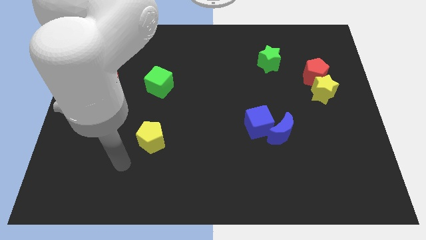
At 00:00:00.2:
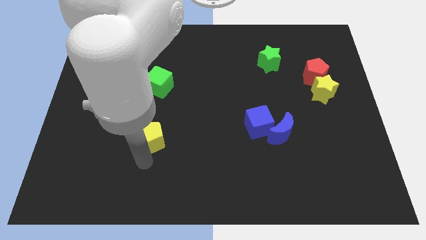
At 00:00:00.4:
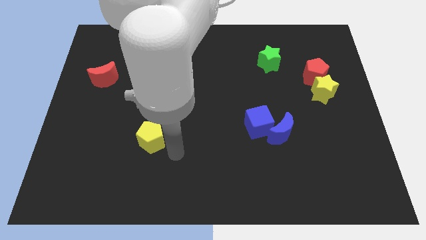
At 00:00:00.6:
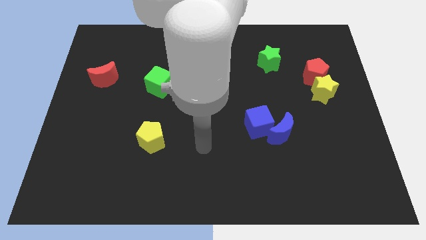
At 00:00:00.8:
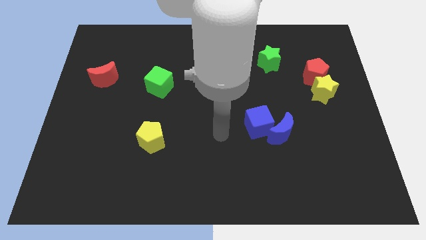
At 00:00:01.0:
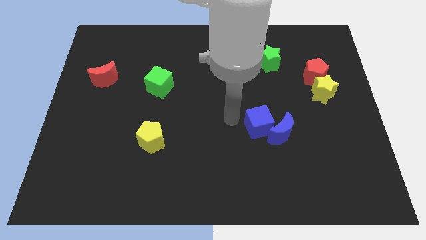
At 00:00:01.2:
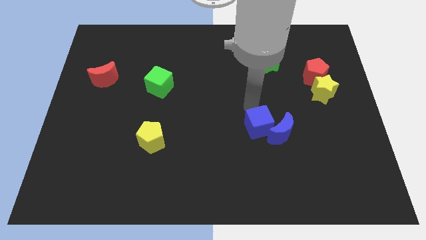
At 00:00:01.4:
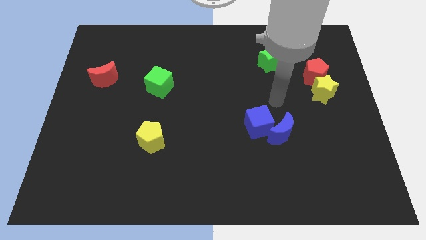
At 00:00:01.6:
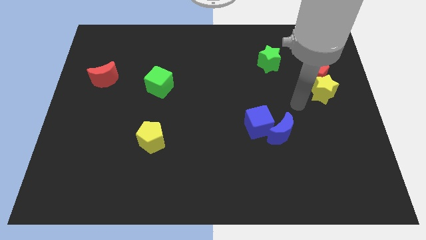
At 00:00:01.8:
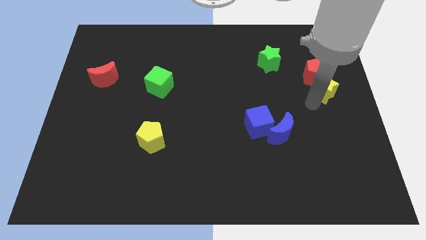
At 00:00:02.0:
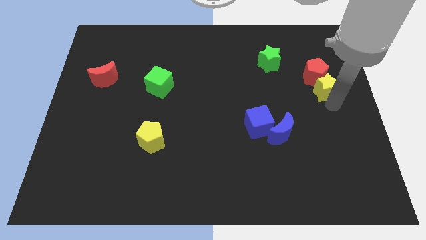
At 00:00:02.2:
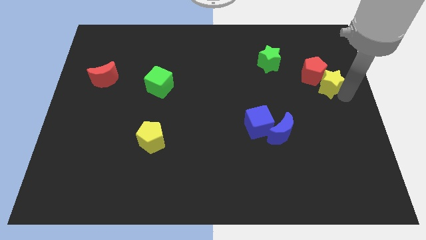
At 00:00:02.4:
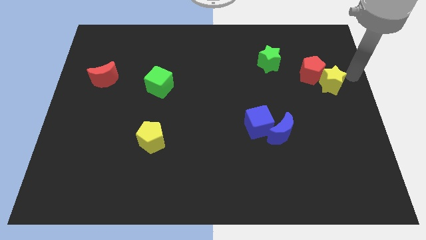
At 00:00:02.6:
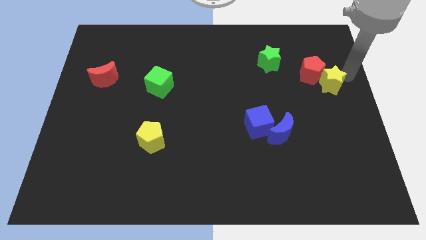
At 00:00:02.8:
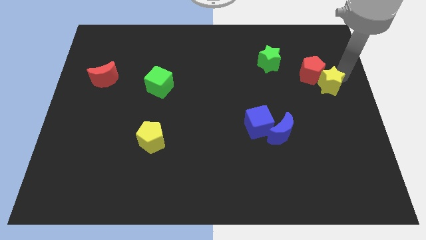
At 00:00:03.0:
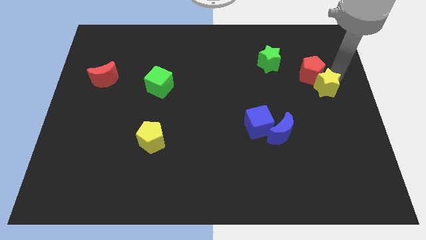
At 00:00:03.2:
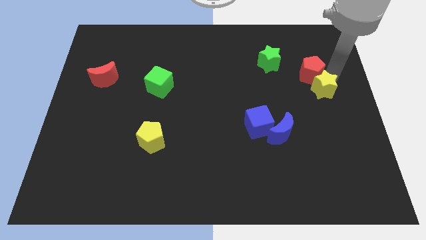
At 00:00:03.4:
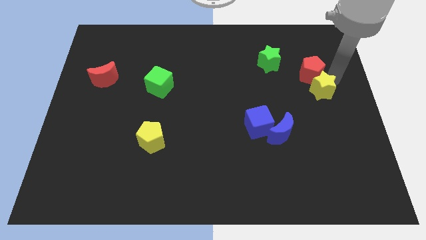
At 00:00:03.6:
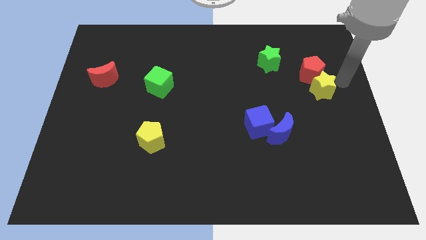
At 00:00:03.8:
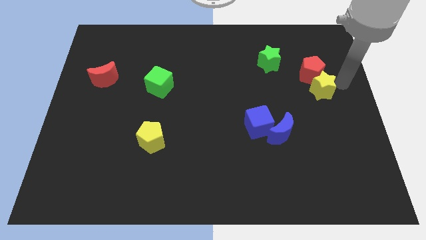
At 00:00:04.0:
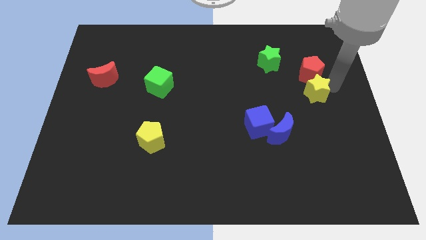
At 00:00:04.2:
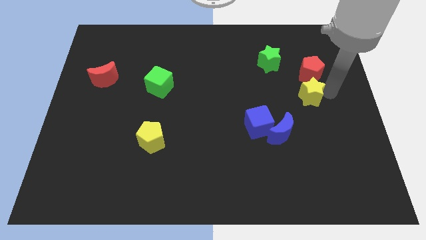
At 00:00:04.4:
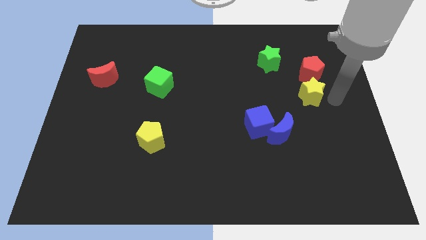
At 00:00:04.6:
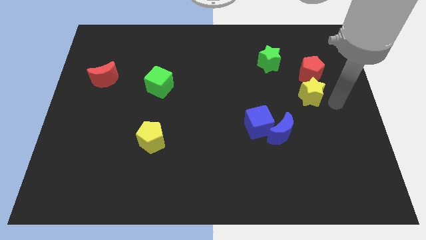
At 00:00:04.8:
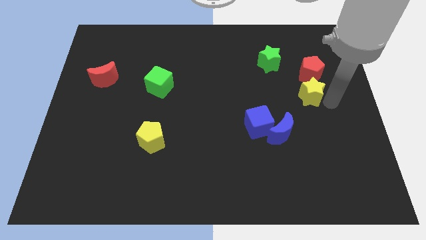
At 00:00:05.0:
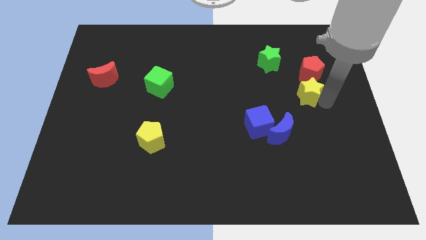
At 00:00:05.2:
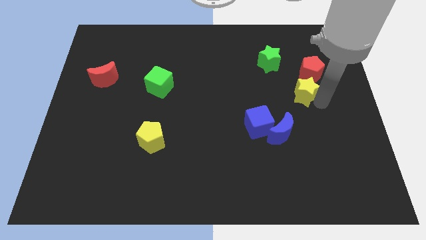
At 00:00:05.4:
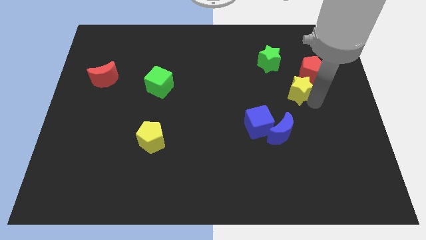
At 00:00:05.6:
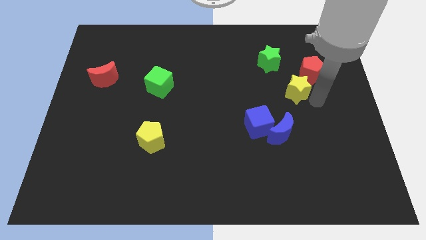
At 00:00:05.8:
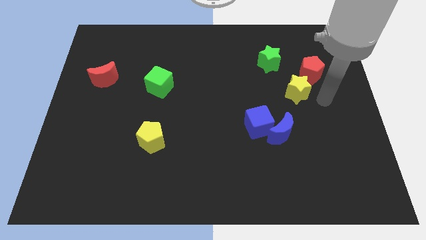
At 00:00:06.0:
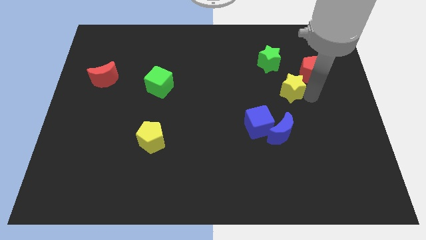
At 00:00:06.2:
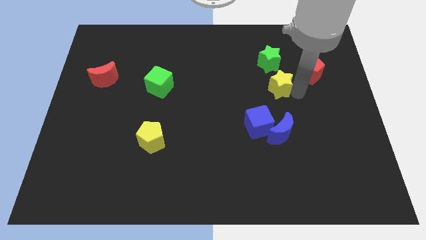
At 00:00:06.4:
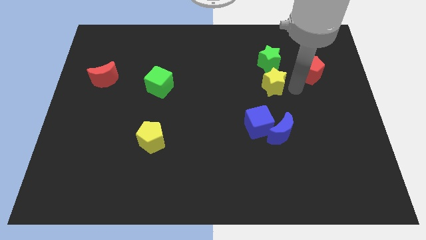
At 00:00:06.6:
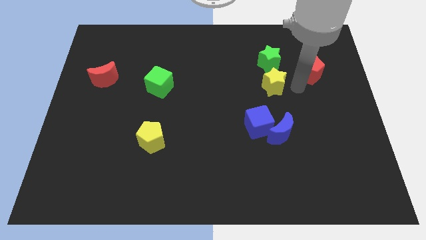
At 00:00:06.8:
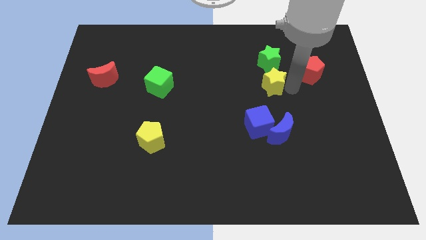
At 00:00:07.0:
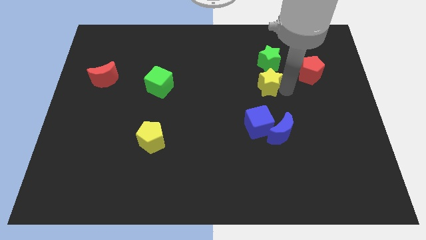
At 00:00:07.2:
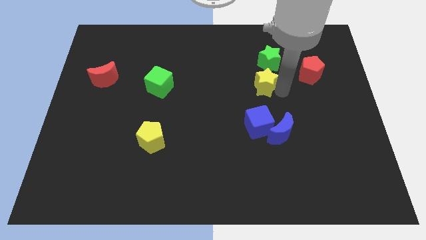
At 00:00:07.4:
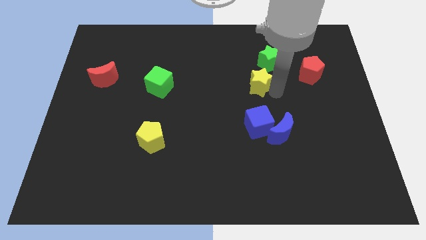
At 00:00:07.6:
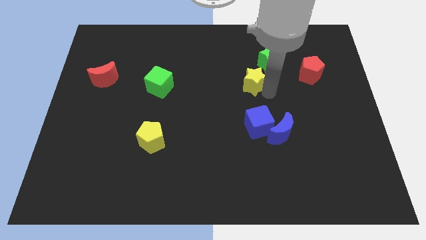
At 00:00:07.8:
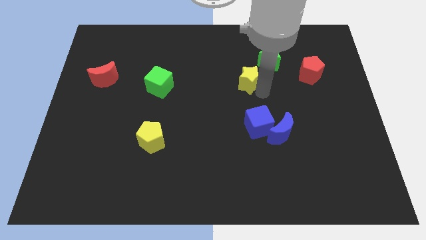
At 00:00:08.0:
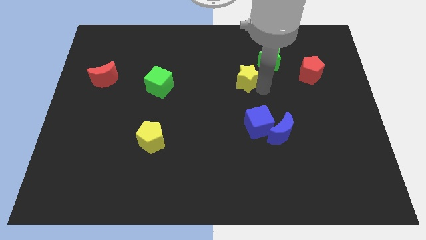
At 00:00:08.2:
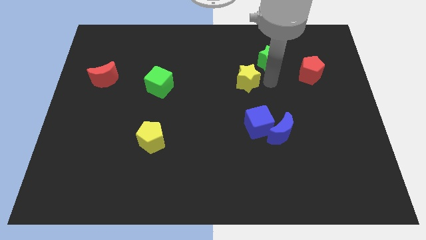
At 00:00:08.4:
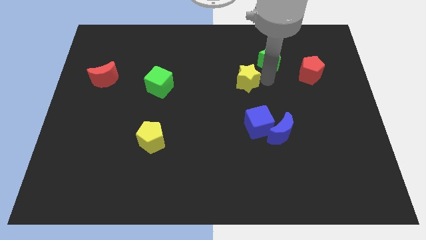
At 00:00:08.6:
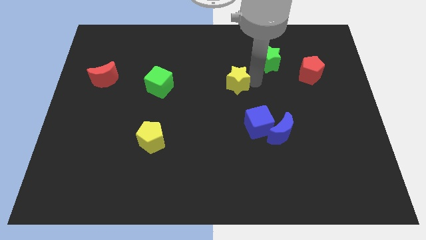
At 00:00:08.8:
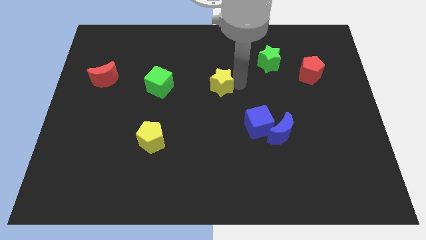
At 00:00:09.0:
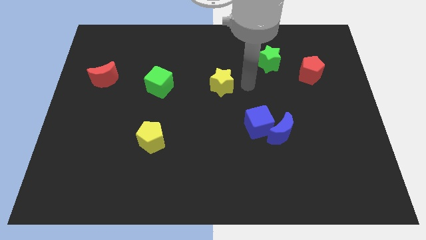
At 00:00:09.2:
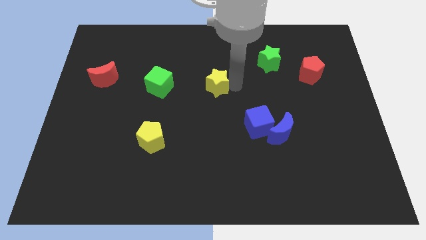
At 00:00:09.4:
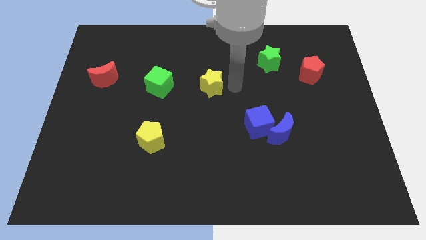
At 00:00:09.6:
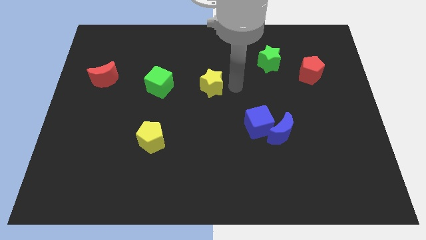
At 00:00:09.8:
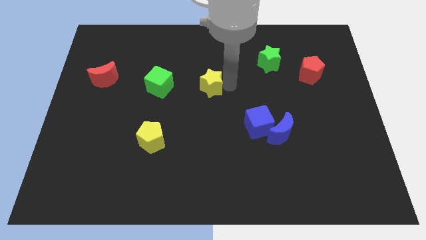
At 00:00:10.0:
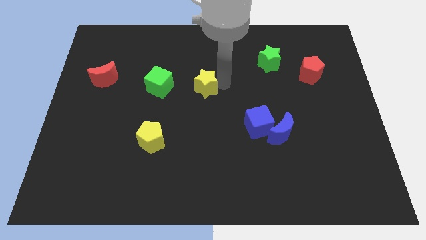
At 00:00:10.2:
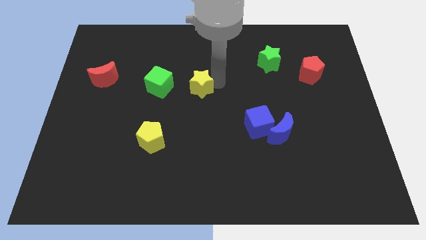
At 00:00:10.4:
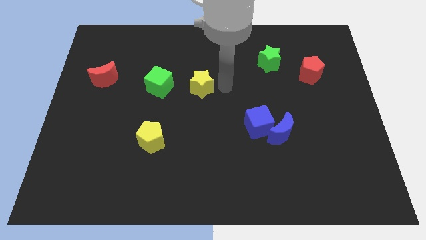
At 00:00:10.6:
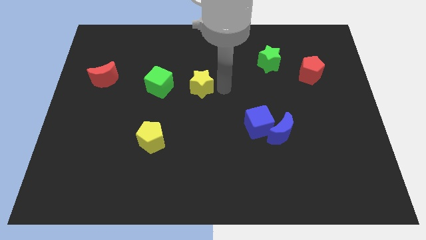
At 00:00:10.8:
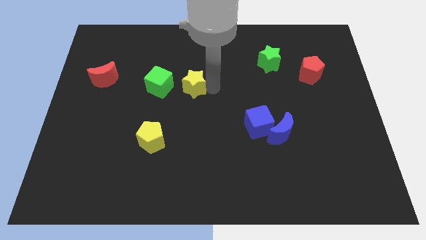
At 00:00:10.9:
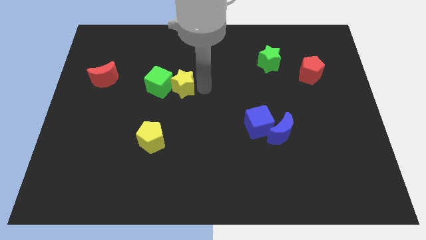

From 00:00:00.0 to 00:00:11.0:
push the yellow star next to the green cube

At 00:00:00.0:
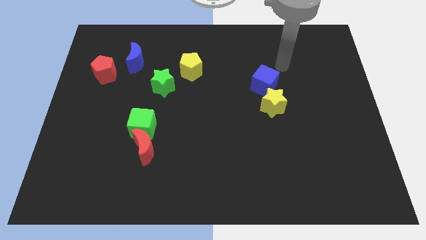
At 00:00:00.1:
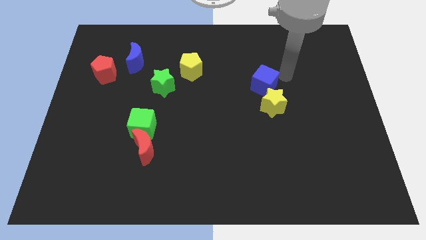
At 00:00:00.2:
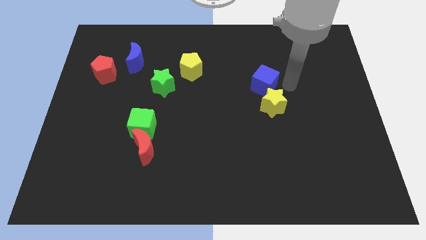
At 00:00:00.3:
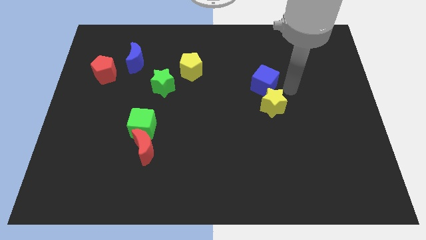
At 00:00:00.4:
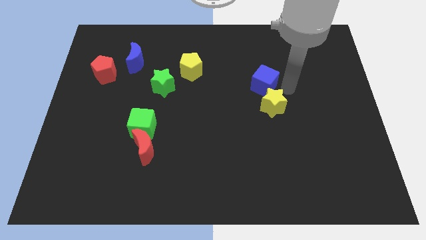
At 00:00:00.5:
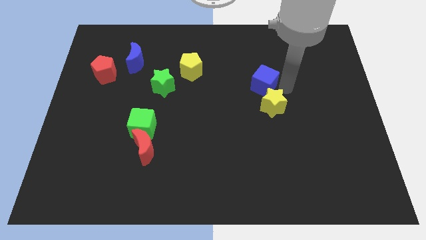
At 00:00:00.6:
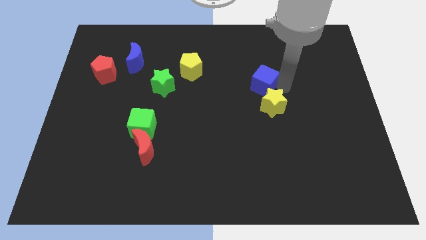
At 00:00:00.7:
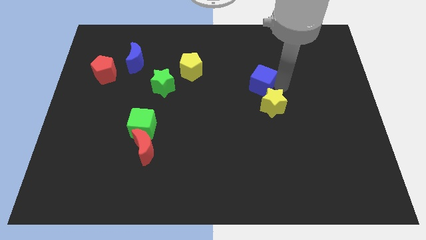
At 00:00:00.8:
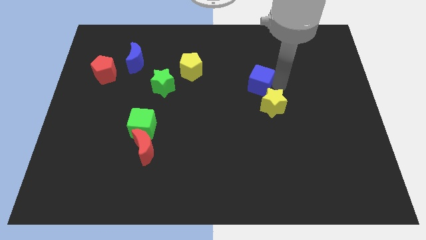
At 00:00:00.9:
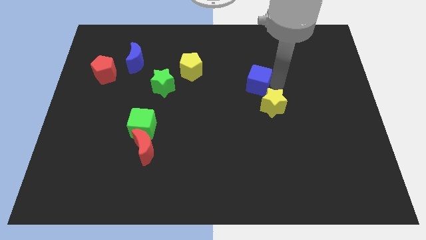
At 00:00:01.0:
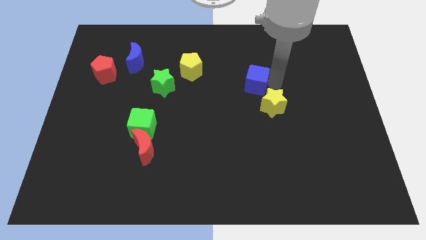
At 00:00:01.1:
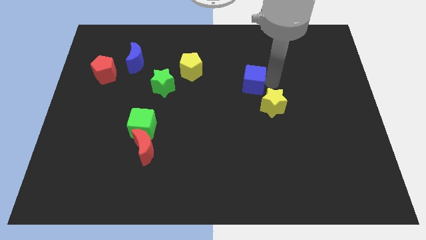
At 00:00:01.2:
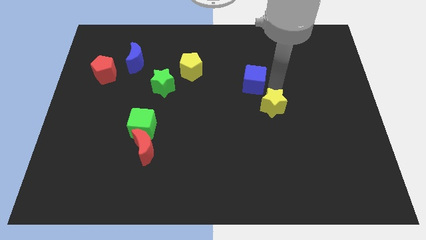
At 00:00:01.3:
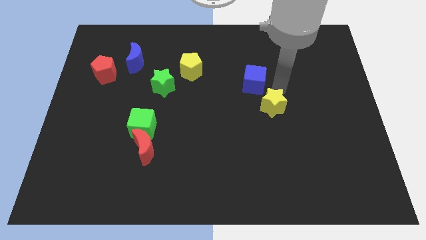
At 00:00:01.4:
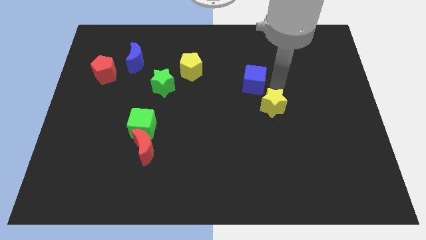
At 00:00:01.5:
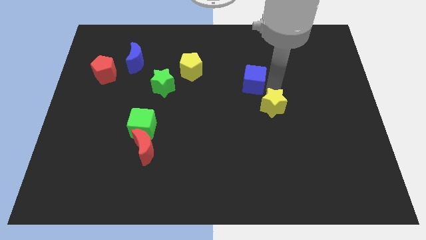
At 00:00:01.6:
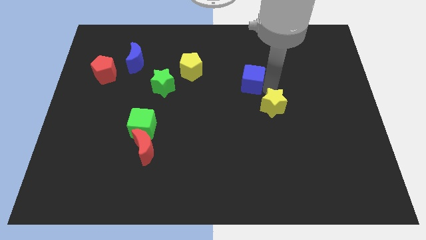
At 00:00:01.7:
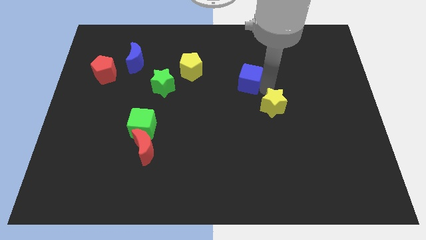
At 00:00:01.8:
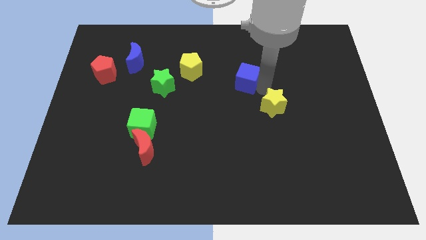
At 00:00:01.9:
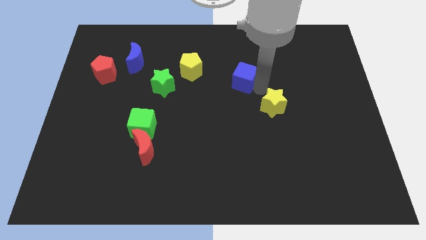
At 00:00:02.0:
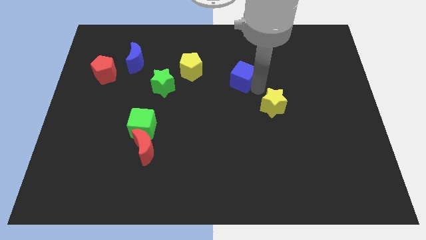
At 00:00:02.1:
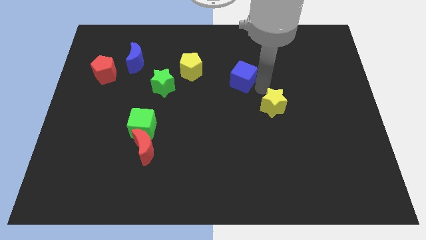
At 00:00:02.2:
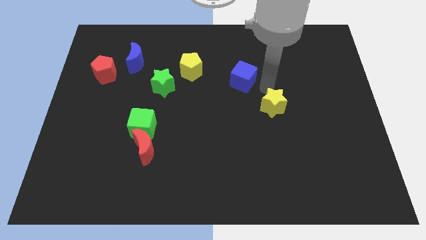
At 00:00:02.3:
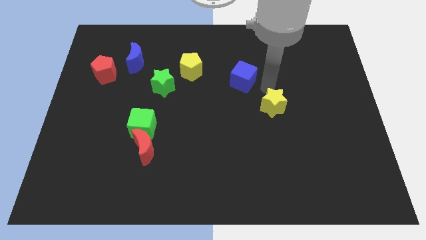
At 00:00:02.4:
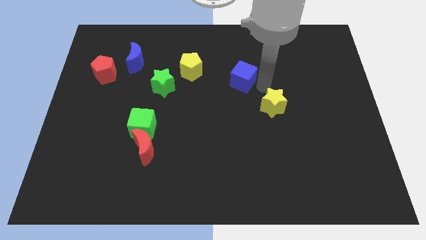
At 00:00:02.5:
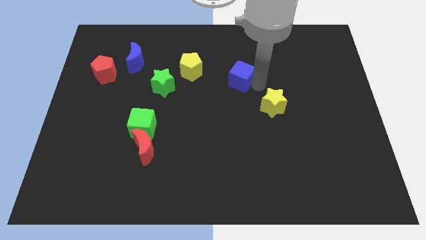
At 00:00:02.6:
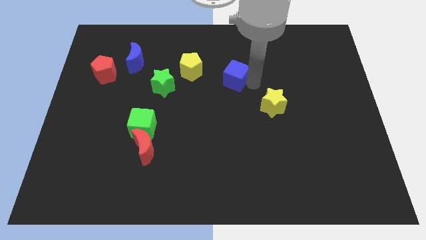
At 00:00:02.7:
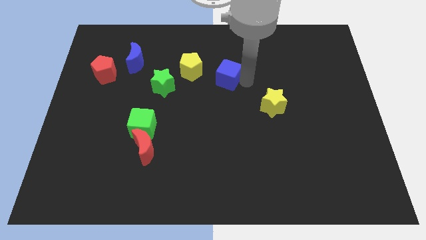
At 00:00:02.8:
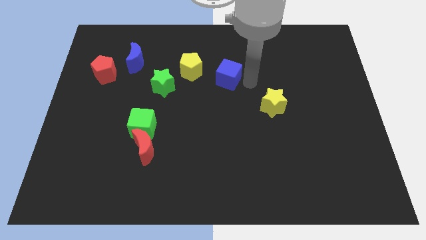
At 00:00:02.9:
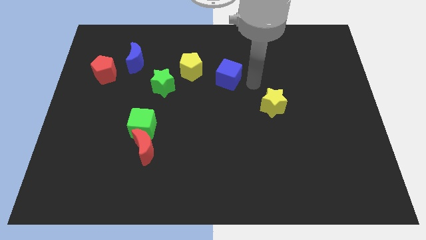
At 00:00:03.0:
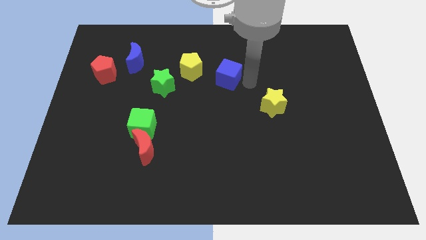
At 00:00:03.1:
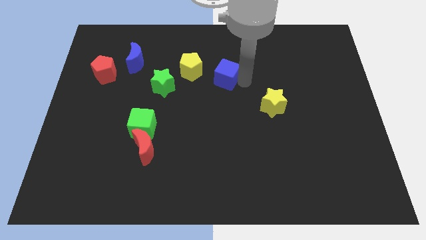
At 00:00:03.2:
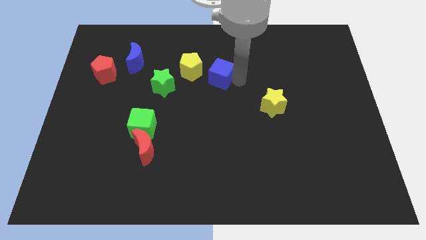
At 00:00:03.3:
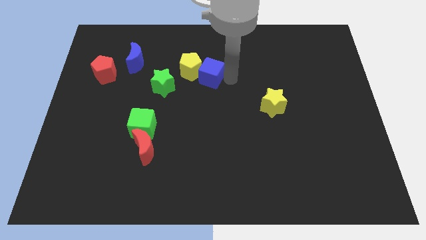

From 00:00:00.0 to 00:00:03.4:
put the blue cube towards the yellow pentagon
